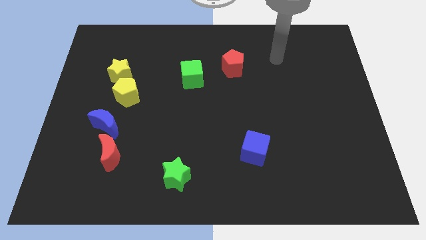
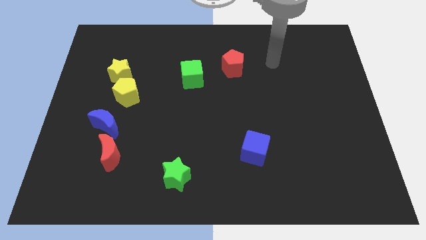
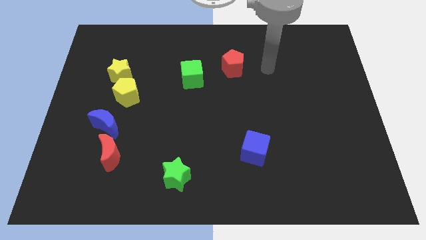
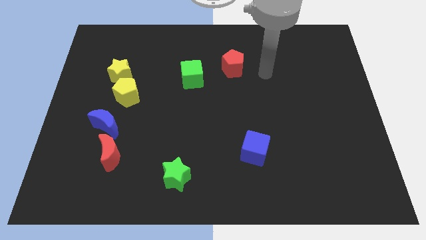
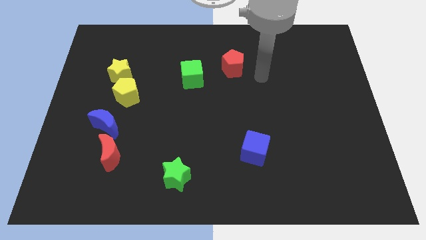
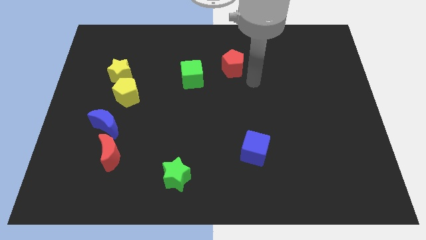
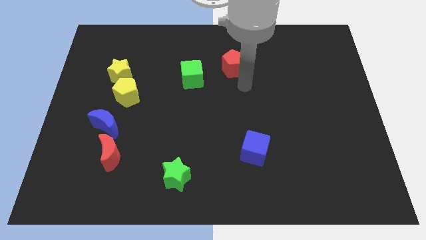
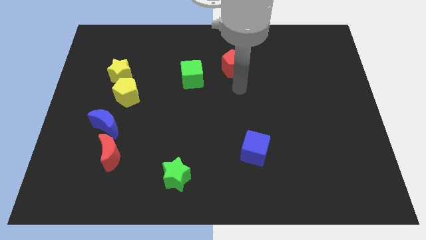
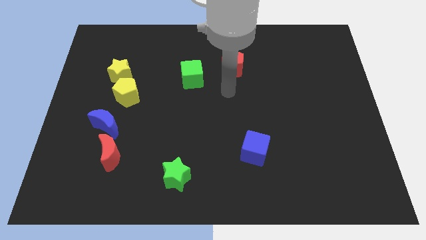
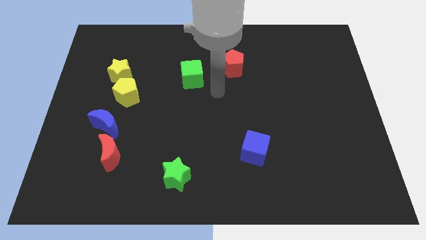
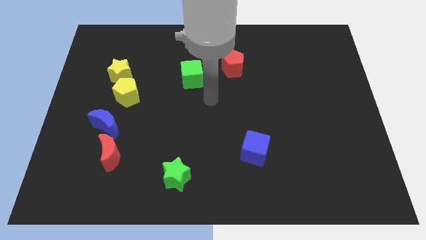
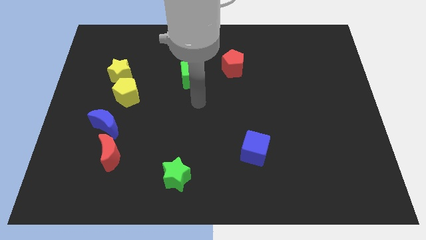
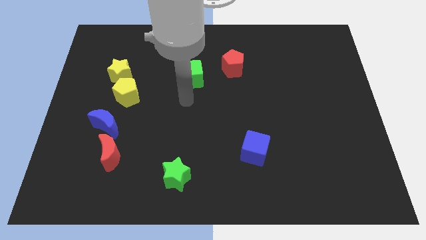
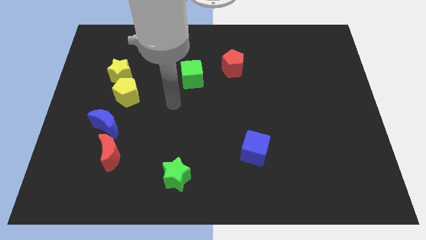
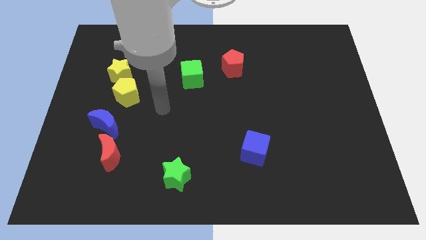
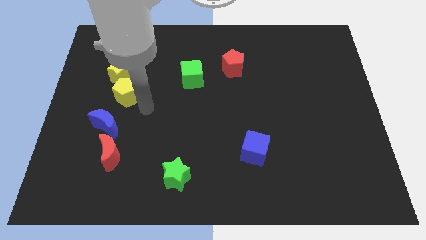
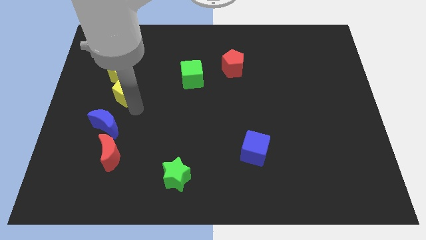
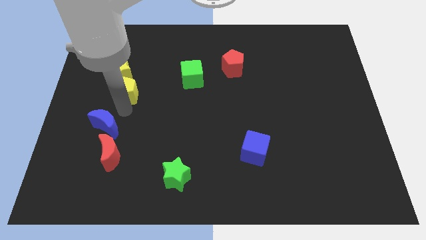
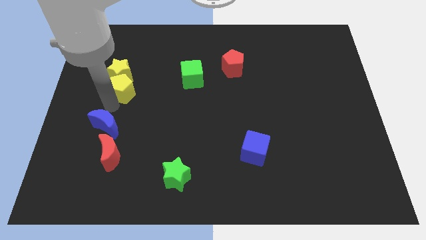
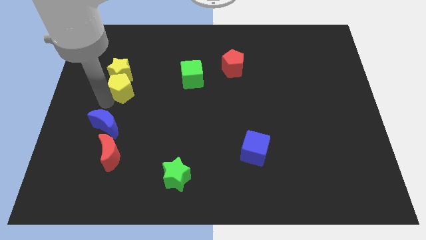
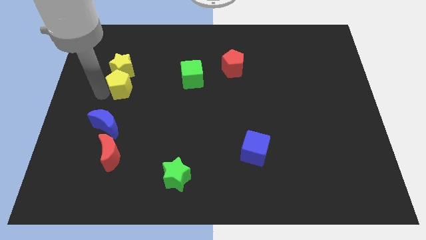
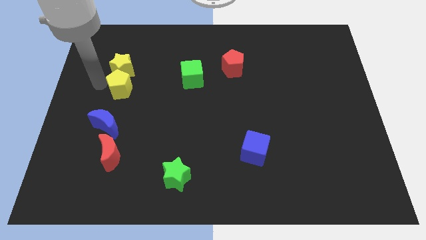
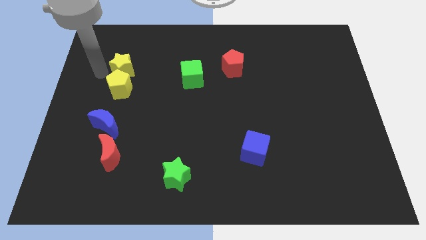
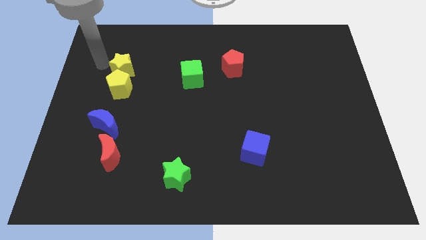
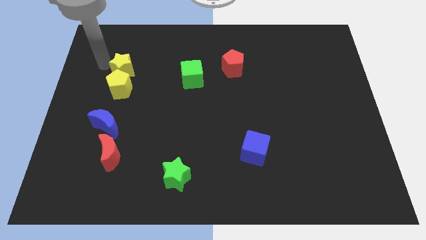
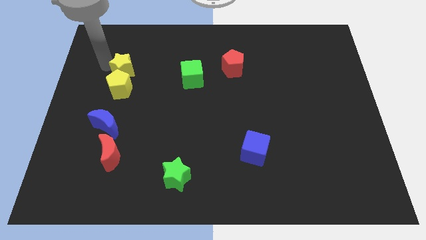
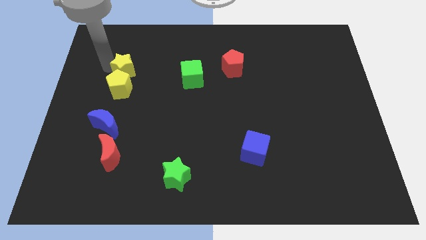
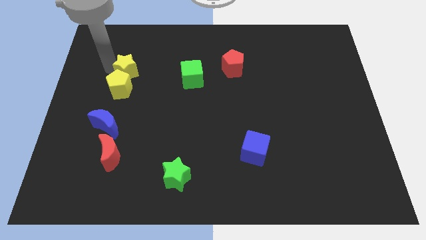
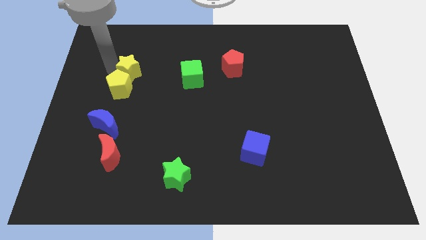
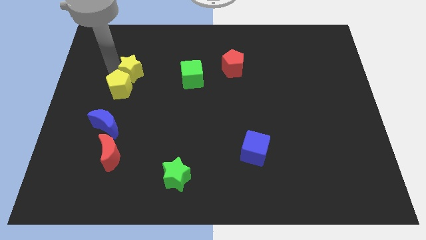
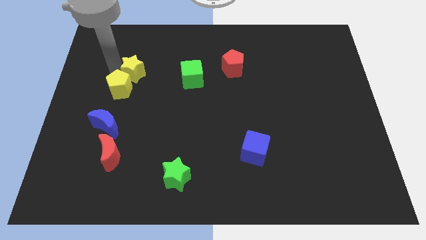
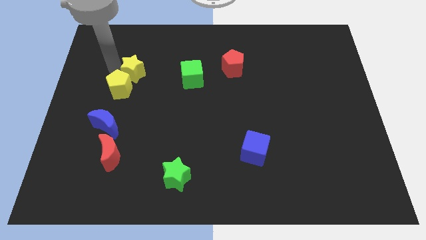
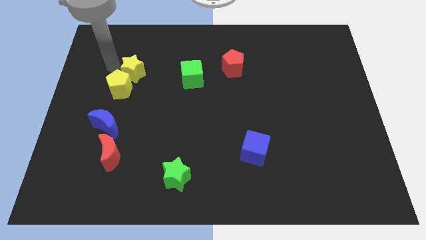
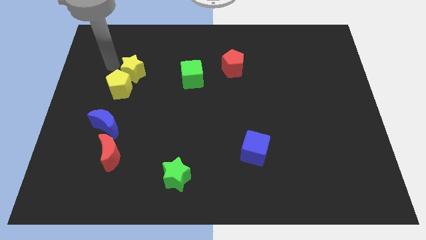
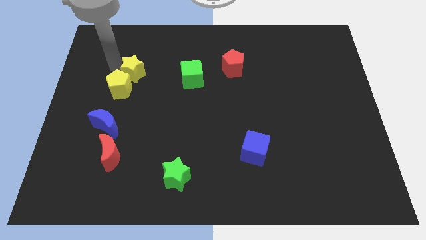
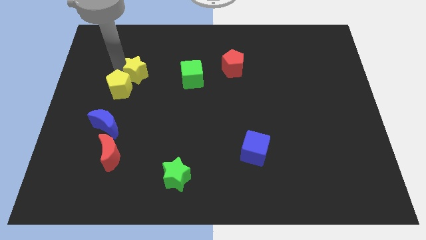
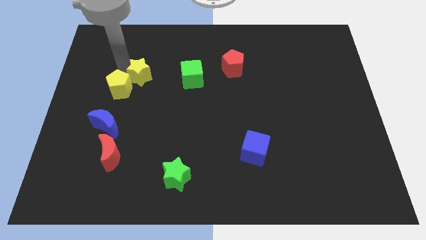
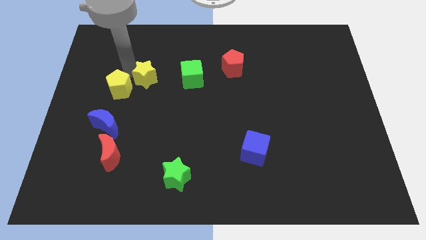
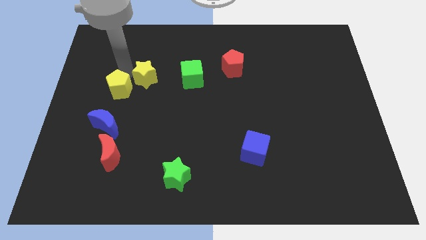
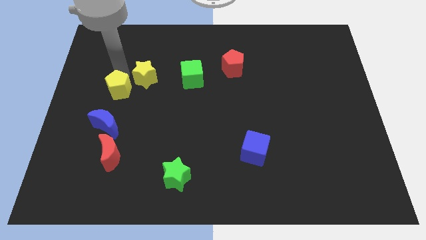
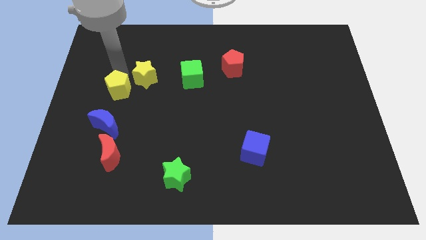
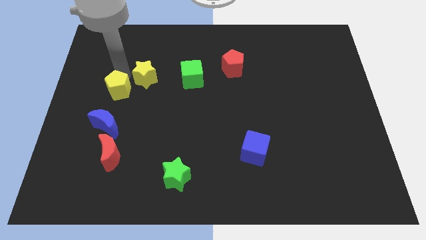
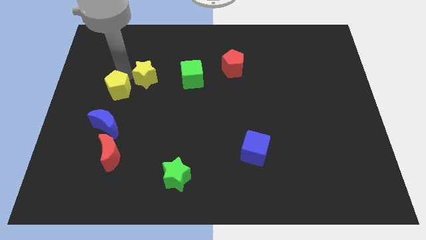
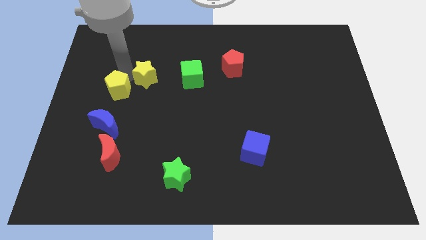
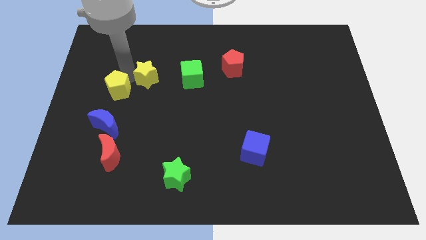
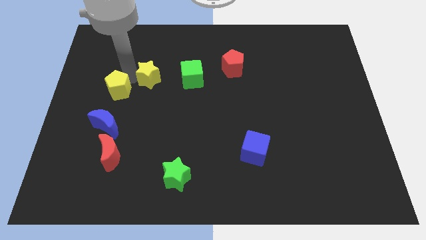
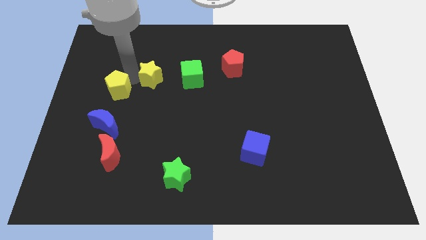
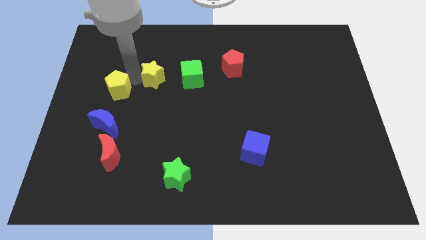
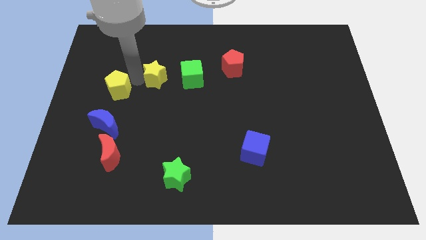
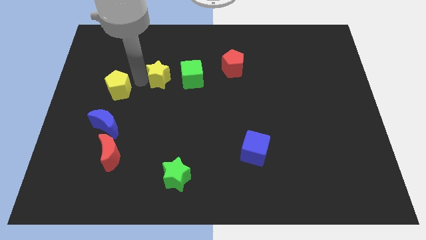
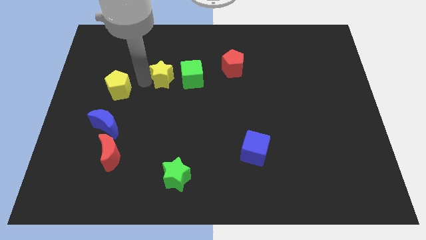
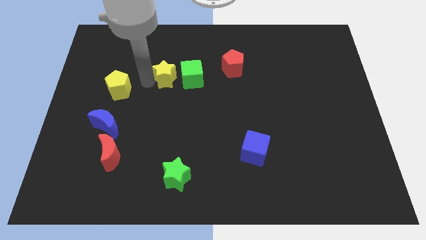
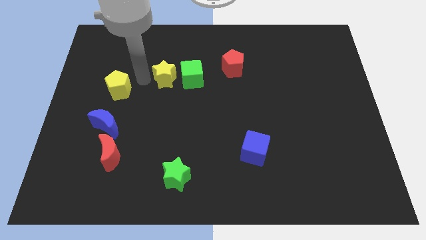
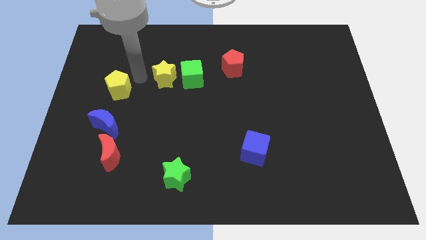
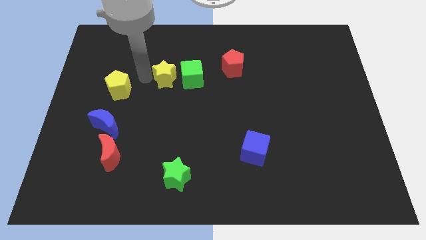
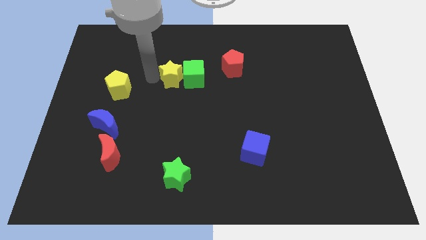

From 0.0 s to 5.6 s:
move the yellow star next to the green cube

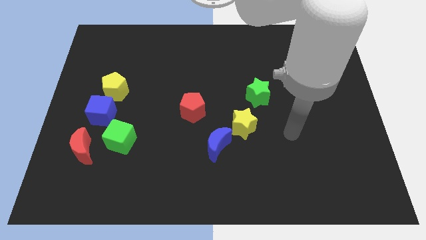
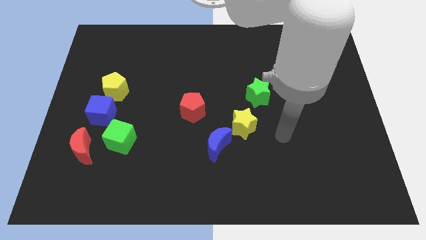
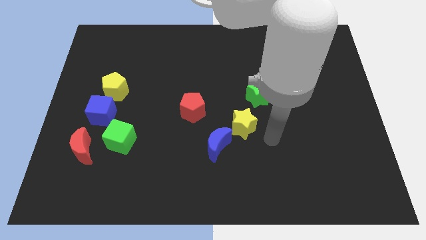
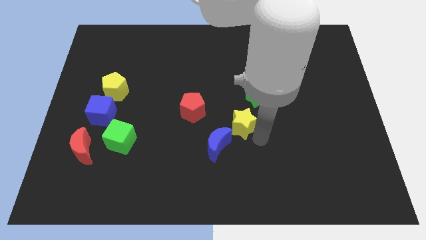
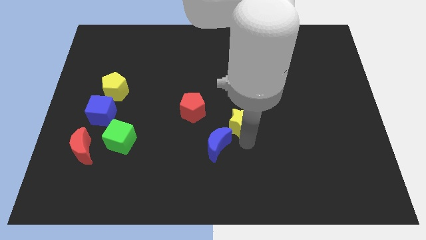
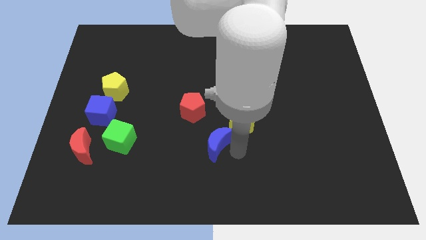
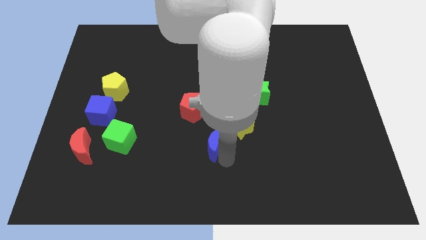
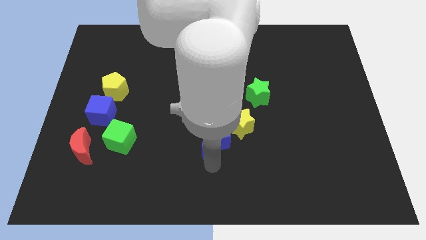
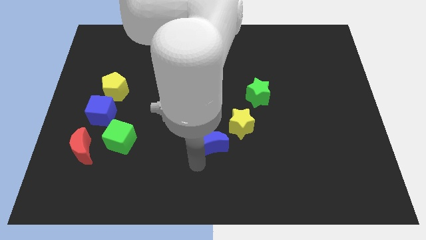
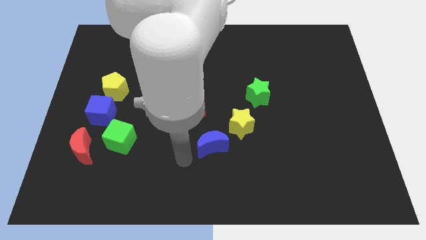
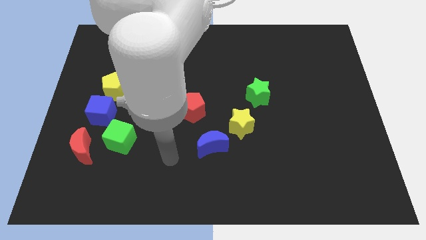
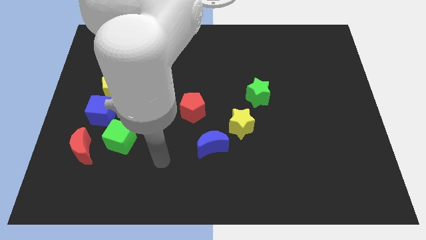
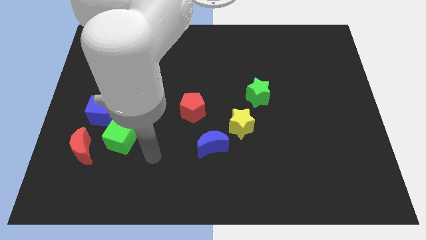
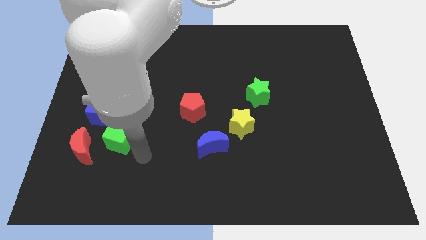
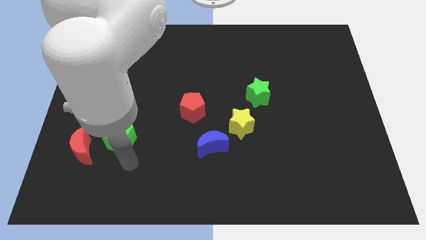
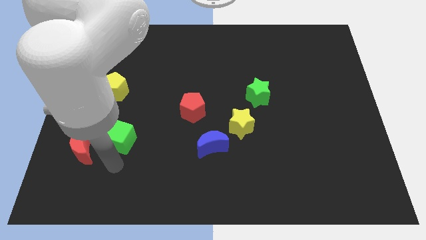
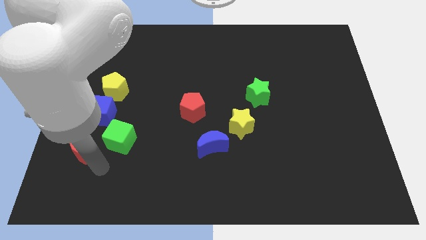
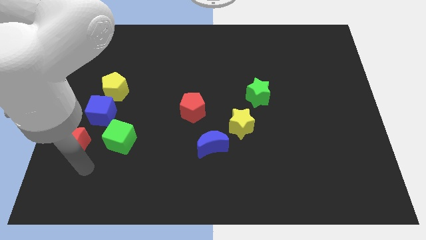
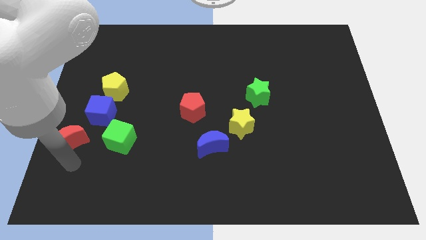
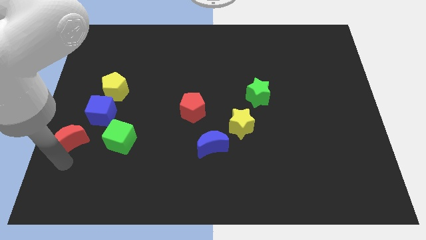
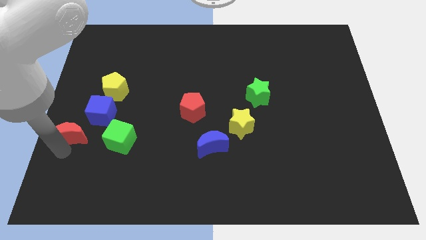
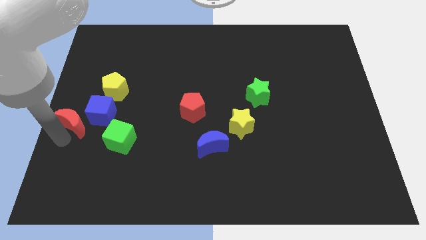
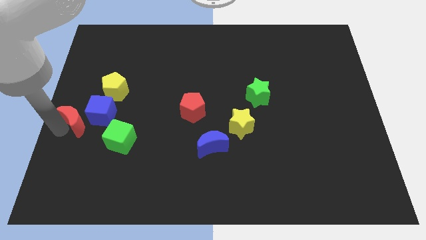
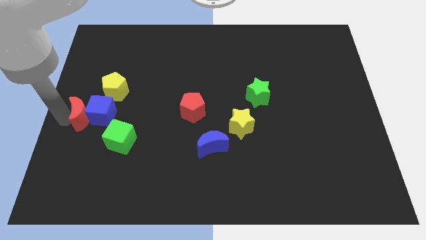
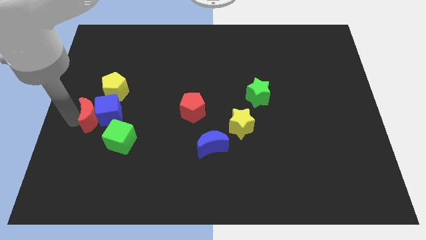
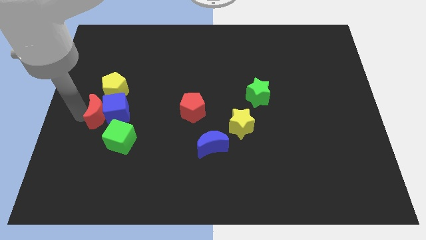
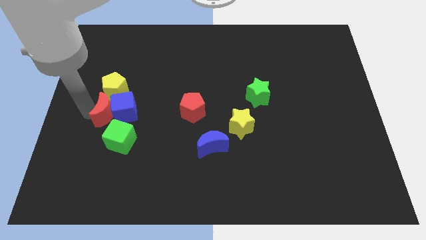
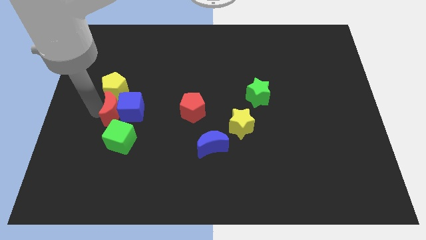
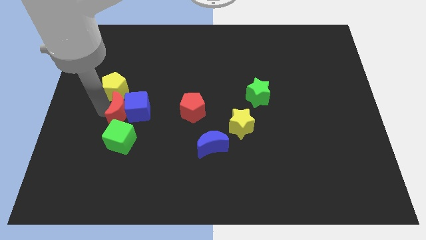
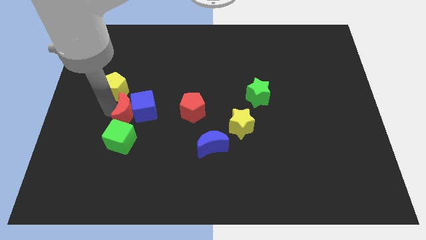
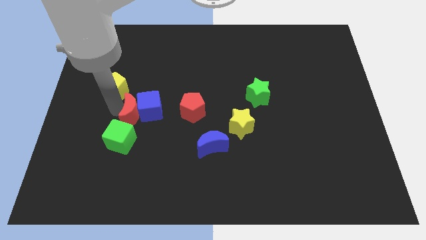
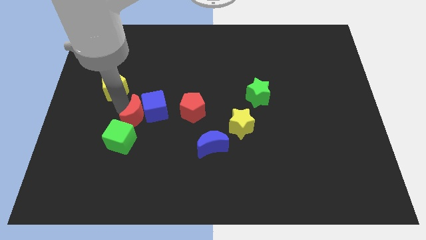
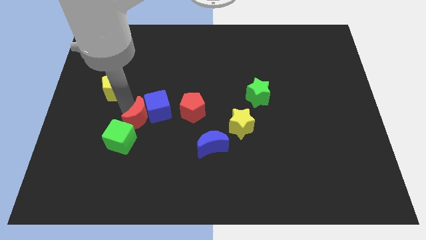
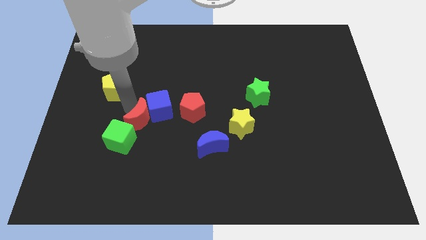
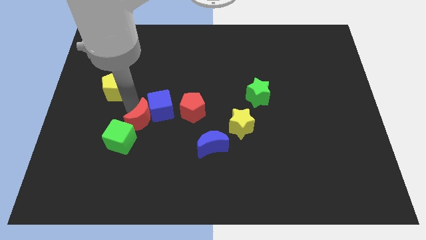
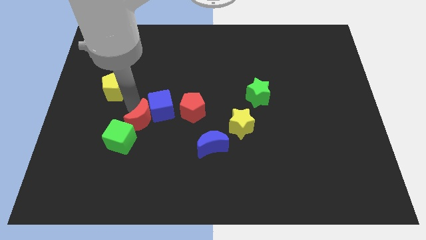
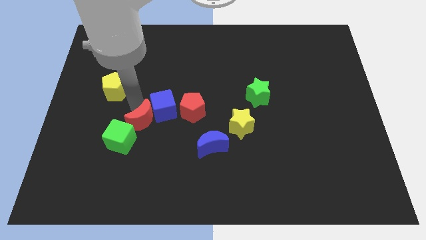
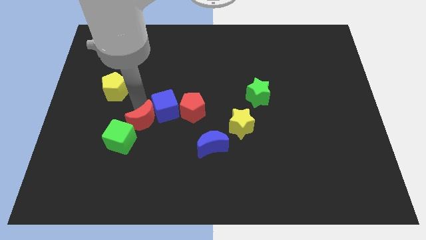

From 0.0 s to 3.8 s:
put the blue cube to the red pentagon
